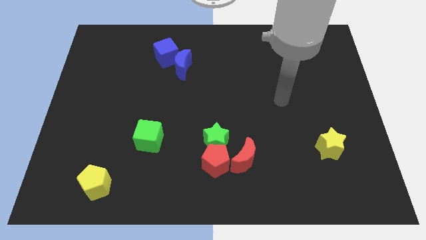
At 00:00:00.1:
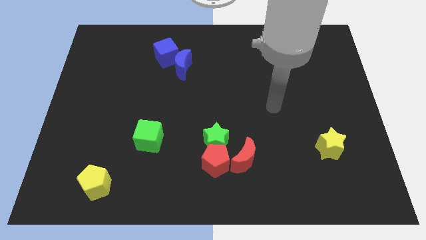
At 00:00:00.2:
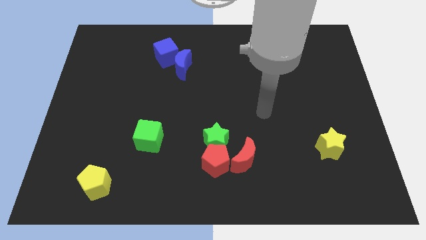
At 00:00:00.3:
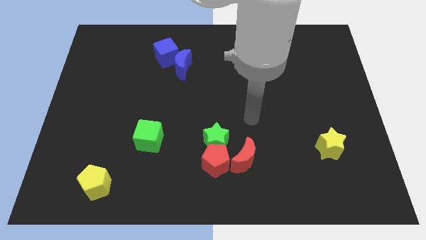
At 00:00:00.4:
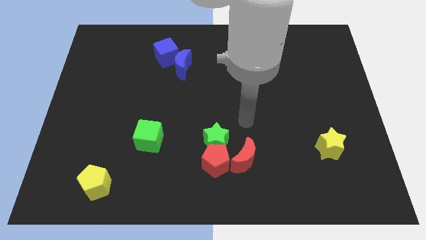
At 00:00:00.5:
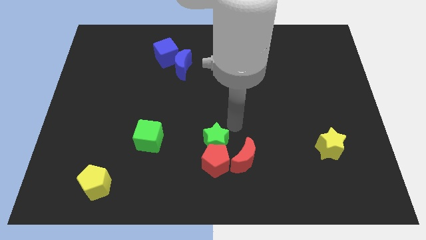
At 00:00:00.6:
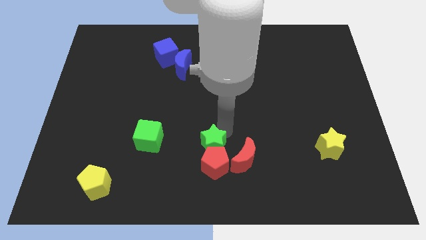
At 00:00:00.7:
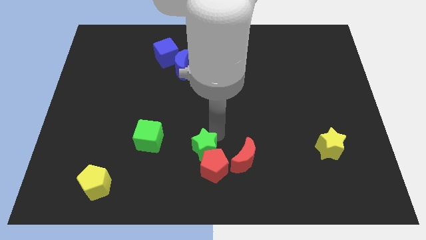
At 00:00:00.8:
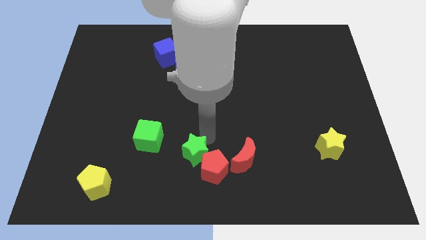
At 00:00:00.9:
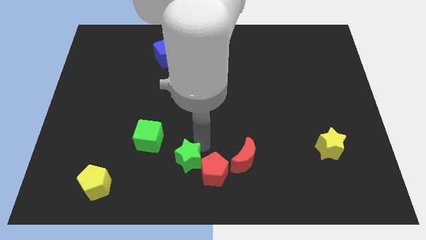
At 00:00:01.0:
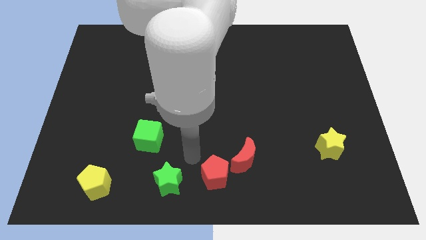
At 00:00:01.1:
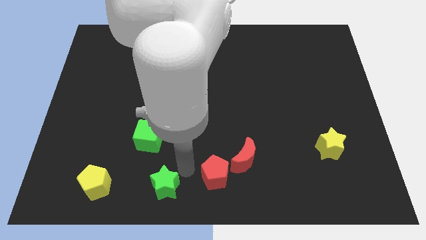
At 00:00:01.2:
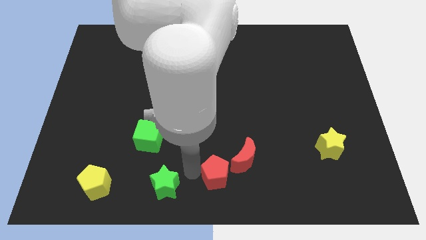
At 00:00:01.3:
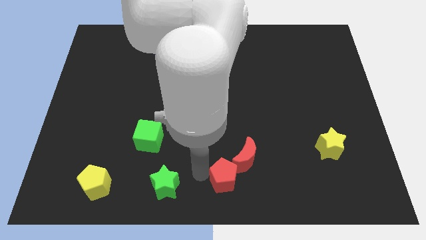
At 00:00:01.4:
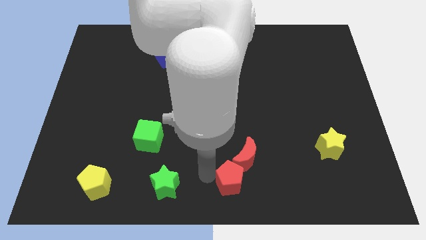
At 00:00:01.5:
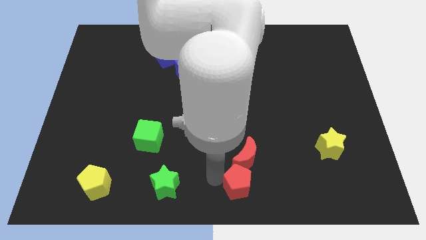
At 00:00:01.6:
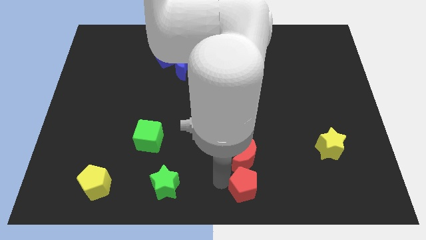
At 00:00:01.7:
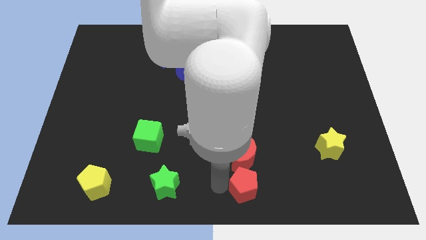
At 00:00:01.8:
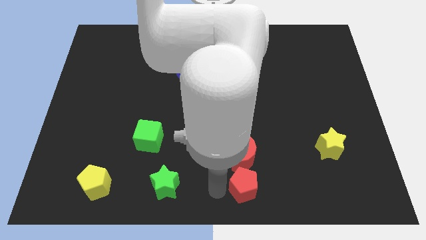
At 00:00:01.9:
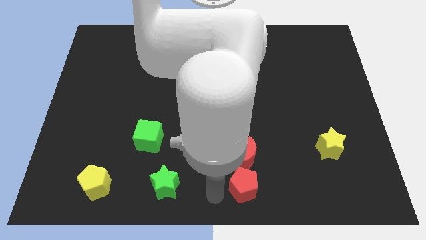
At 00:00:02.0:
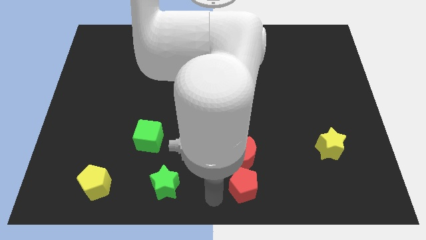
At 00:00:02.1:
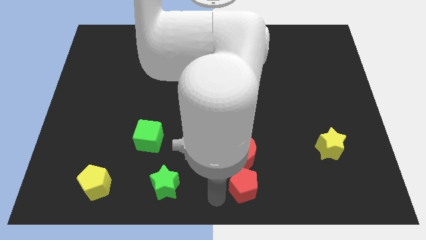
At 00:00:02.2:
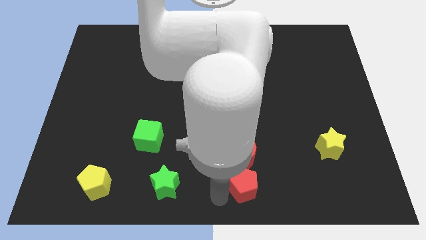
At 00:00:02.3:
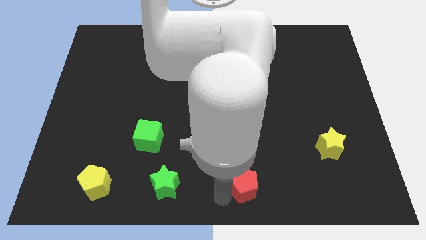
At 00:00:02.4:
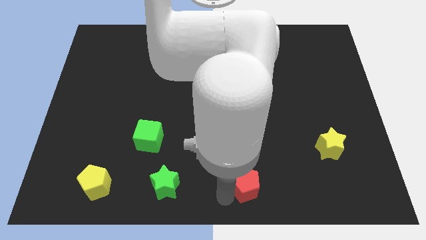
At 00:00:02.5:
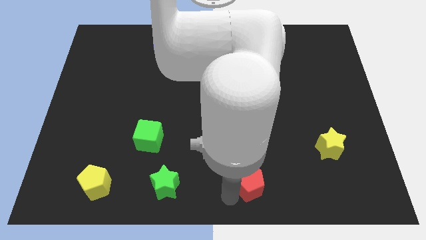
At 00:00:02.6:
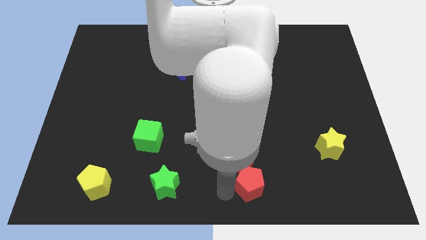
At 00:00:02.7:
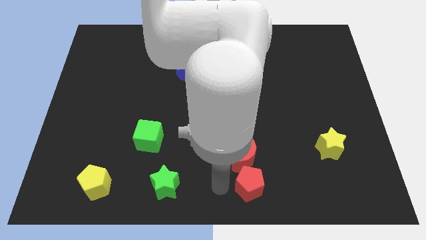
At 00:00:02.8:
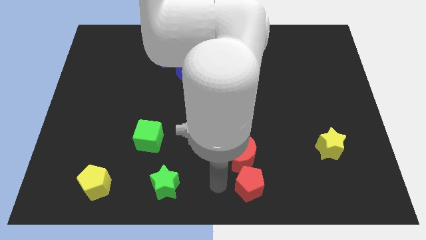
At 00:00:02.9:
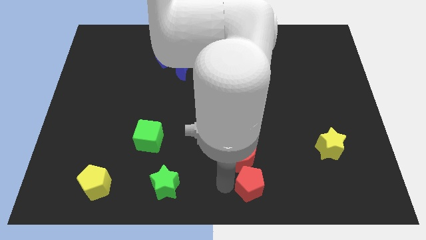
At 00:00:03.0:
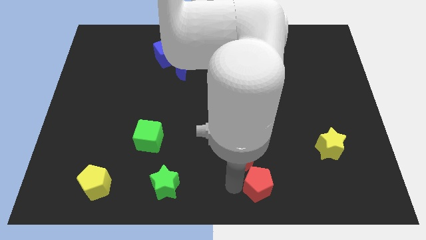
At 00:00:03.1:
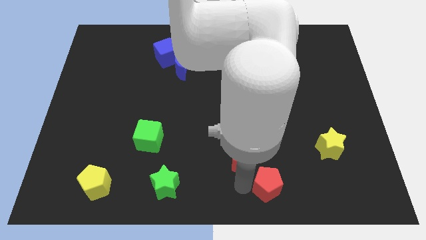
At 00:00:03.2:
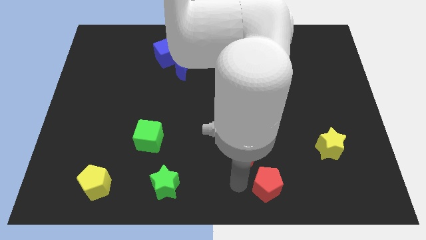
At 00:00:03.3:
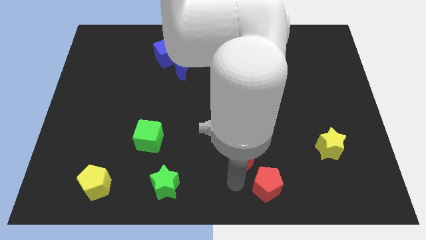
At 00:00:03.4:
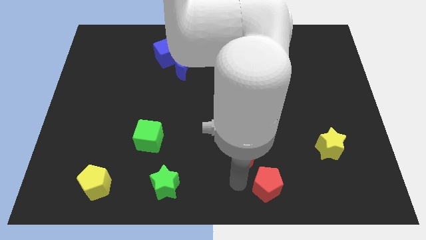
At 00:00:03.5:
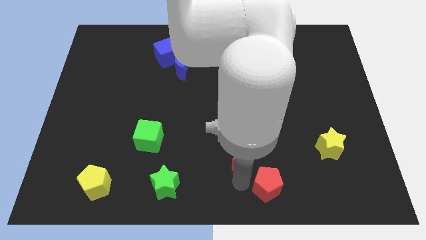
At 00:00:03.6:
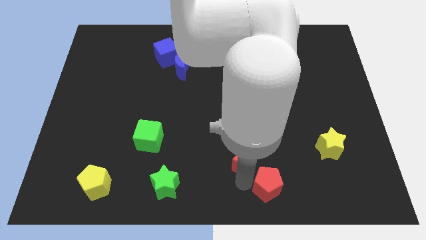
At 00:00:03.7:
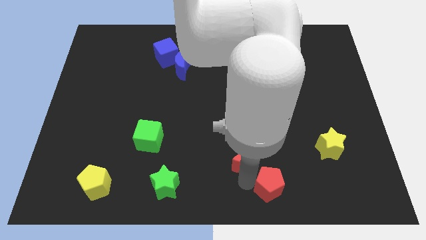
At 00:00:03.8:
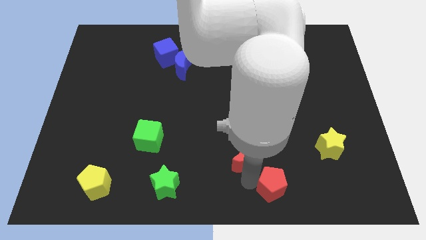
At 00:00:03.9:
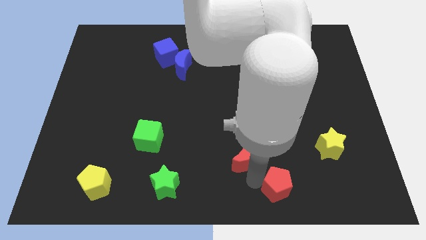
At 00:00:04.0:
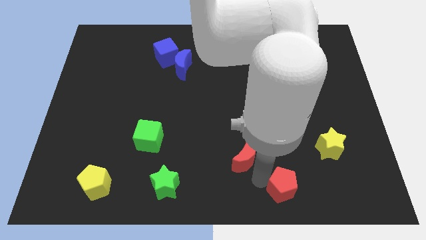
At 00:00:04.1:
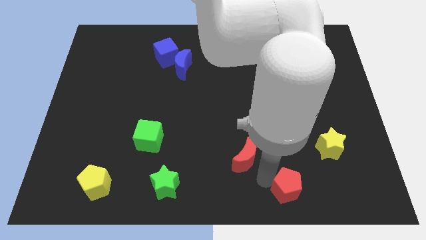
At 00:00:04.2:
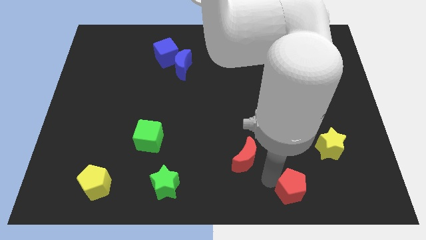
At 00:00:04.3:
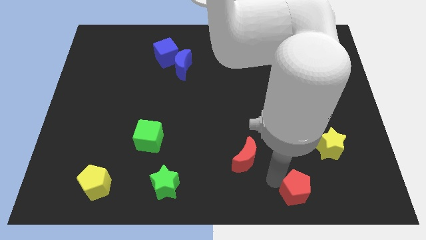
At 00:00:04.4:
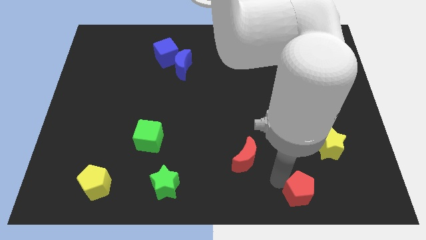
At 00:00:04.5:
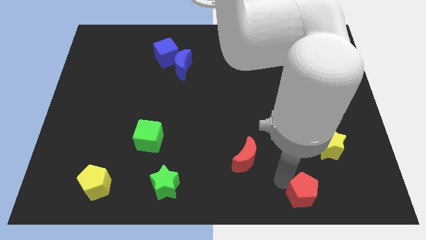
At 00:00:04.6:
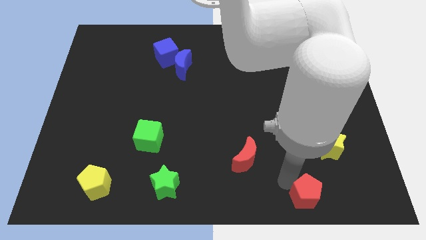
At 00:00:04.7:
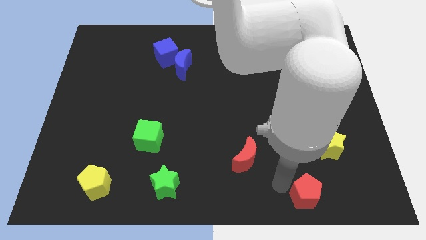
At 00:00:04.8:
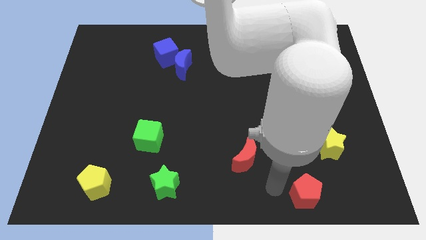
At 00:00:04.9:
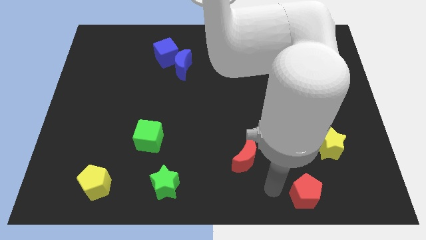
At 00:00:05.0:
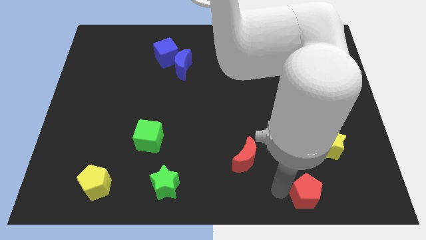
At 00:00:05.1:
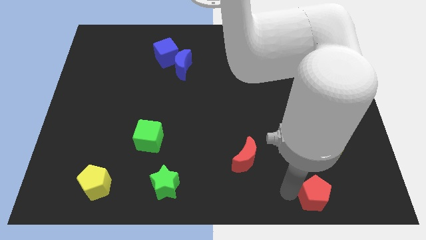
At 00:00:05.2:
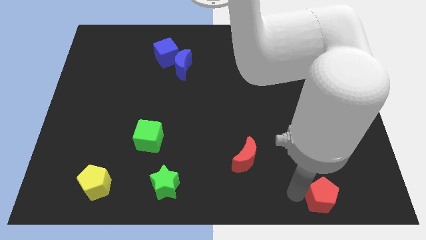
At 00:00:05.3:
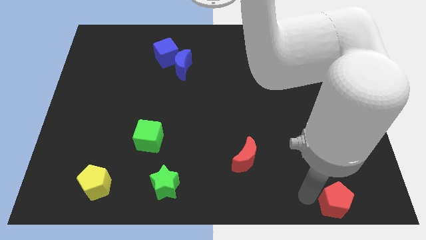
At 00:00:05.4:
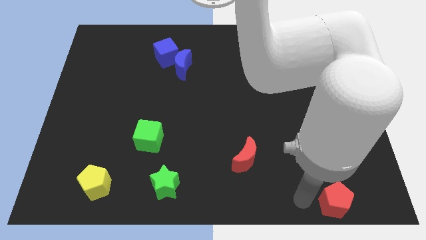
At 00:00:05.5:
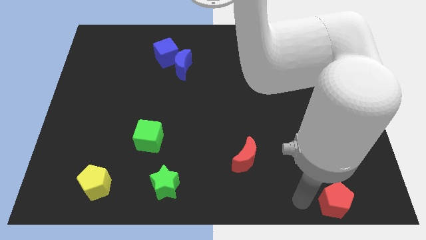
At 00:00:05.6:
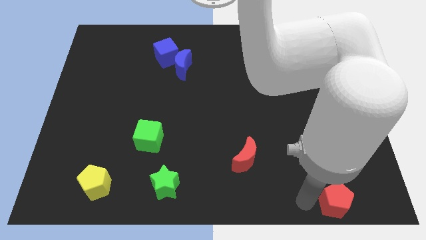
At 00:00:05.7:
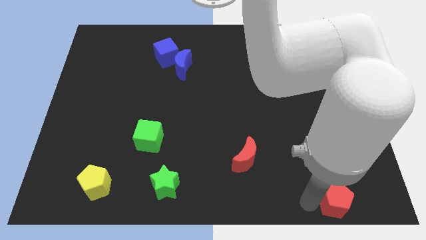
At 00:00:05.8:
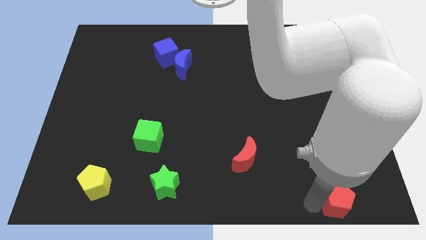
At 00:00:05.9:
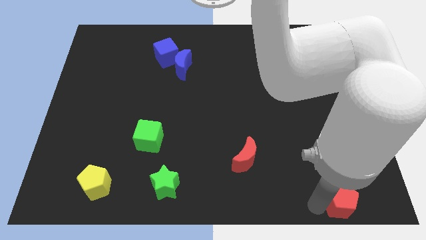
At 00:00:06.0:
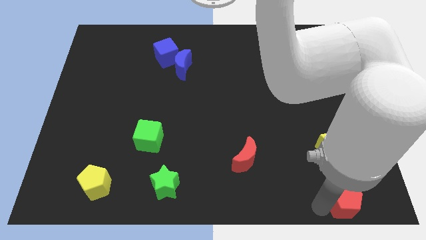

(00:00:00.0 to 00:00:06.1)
move the red pentagon to the bottom right corner

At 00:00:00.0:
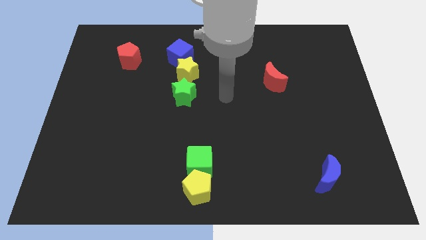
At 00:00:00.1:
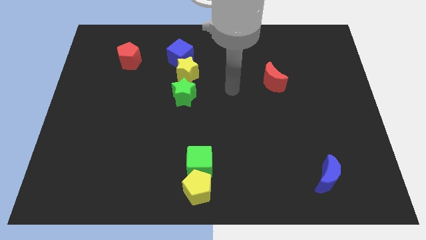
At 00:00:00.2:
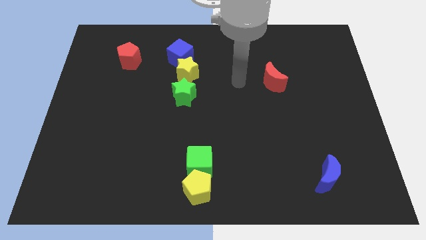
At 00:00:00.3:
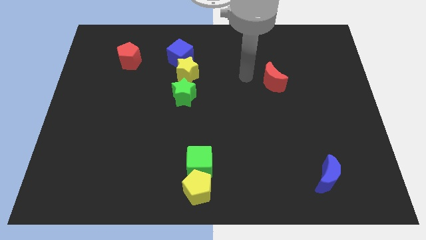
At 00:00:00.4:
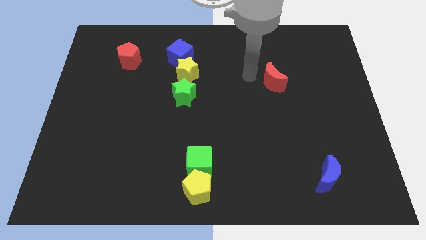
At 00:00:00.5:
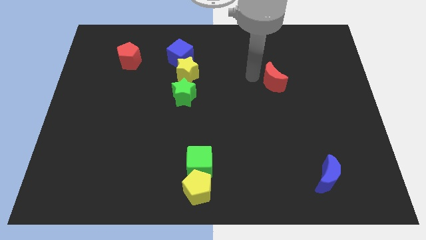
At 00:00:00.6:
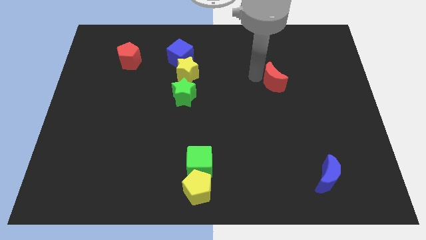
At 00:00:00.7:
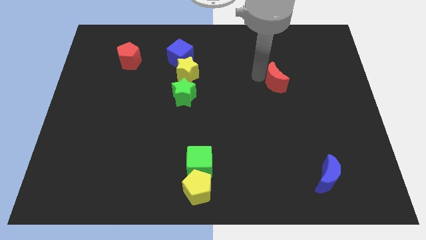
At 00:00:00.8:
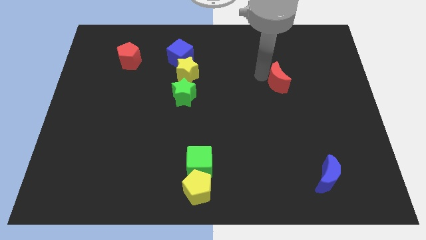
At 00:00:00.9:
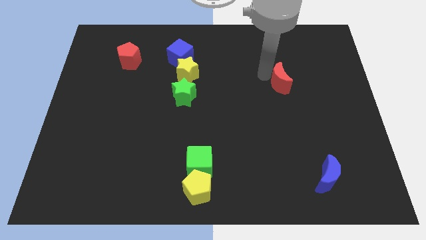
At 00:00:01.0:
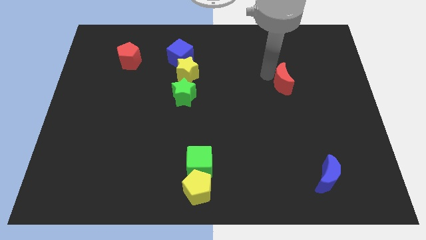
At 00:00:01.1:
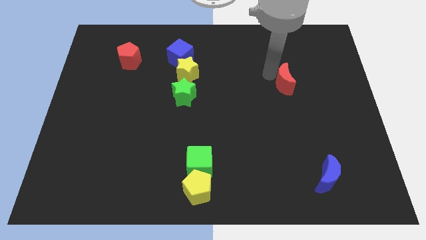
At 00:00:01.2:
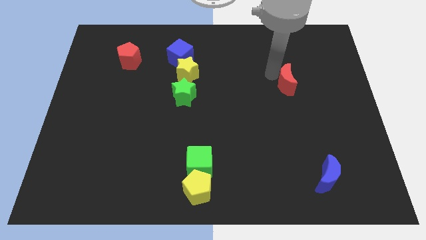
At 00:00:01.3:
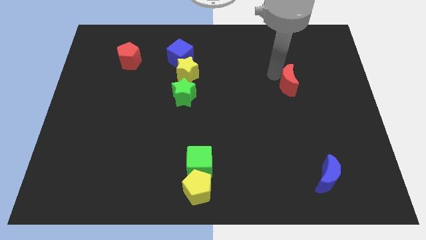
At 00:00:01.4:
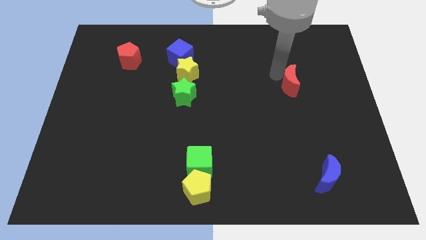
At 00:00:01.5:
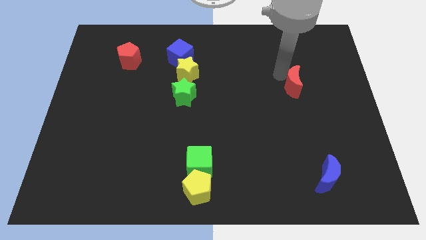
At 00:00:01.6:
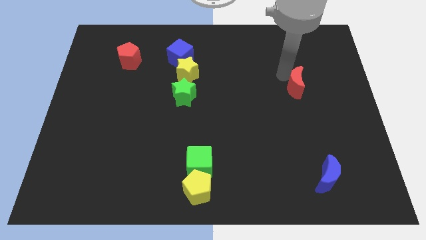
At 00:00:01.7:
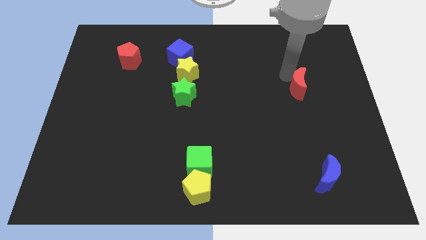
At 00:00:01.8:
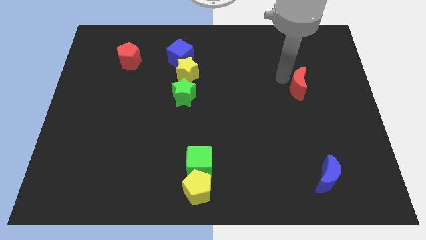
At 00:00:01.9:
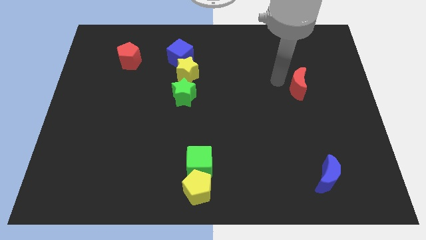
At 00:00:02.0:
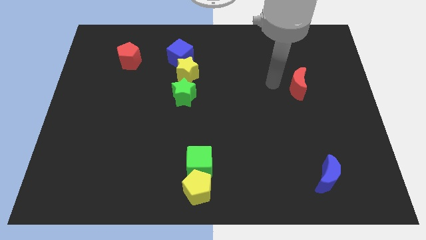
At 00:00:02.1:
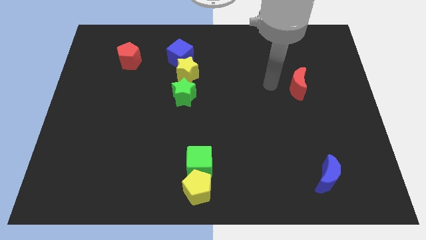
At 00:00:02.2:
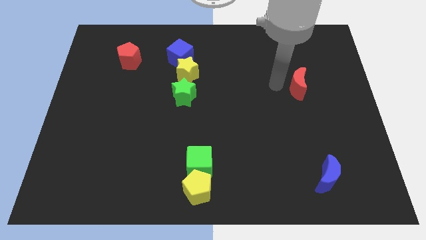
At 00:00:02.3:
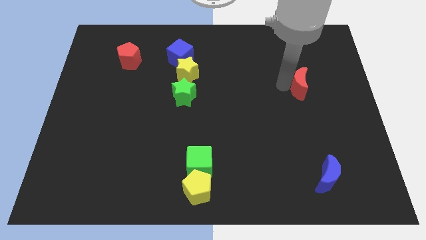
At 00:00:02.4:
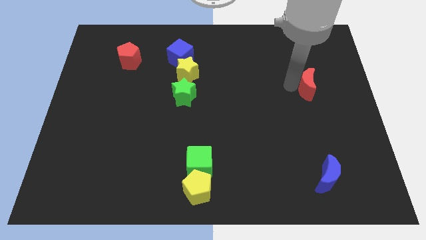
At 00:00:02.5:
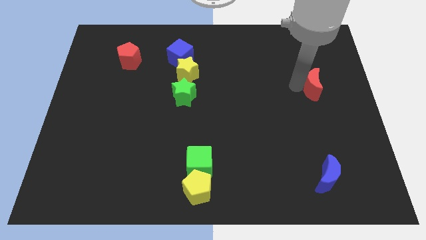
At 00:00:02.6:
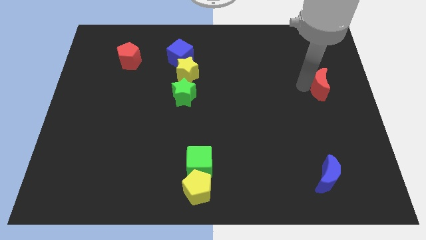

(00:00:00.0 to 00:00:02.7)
move the red moon to the right side
